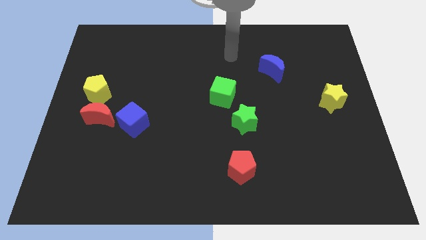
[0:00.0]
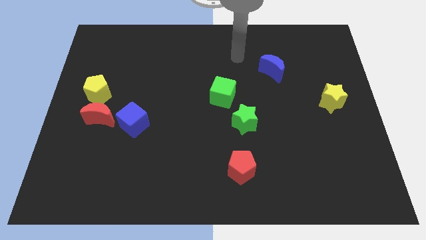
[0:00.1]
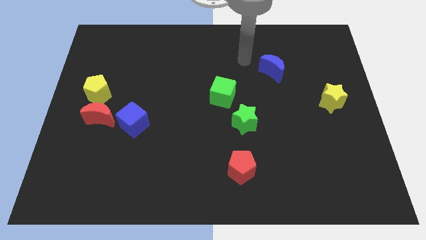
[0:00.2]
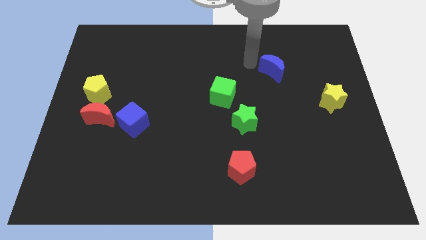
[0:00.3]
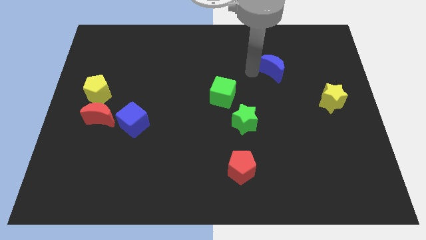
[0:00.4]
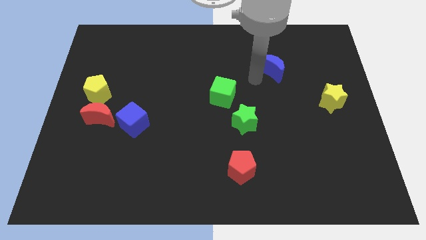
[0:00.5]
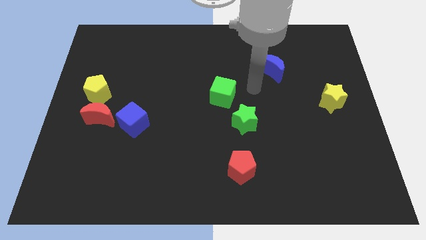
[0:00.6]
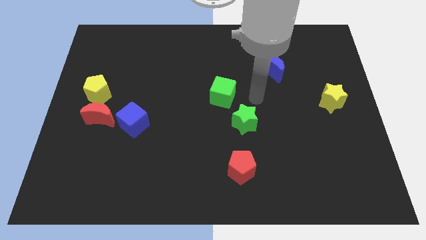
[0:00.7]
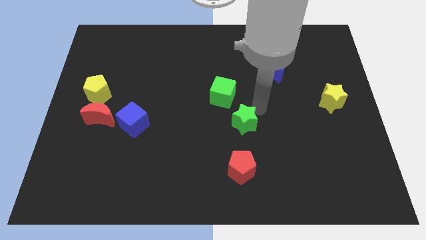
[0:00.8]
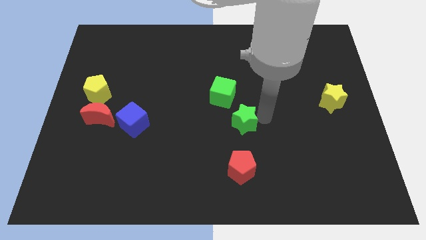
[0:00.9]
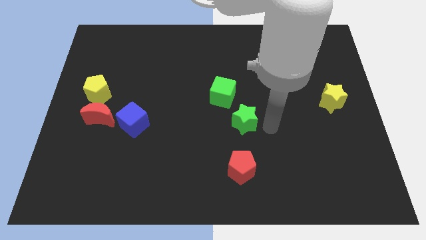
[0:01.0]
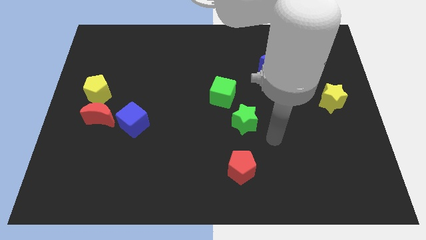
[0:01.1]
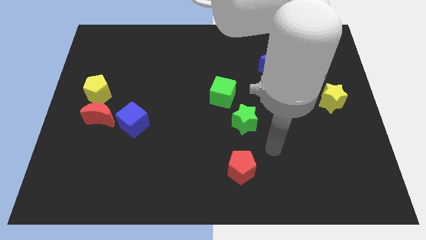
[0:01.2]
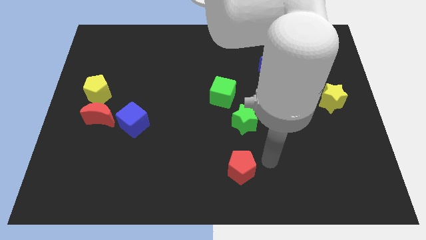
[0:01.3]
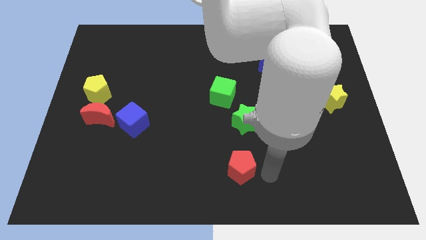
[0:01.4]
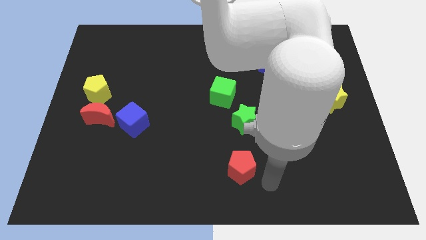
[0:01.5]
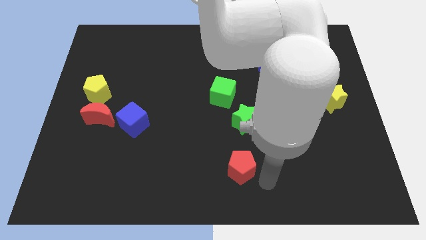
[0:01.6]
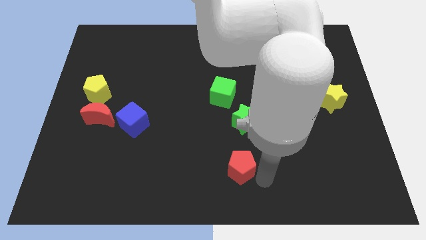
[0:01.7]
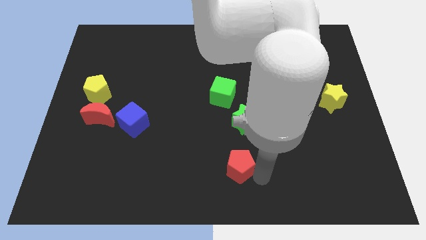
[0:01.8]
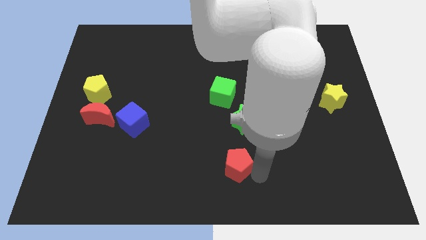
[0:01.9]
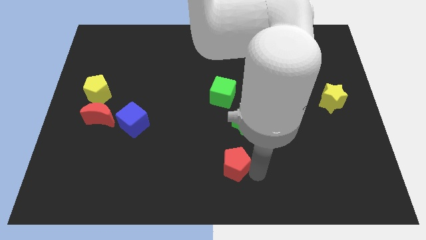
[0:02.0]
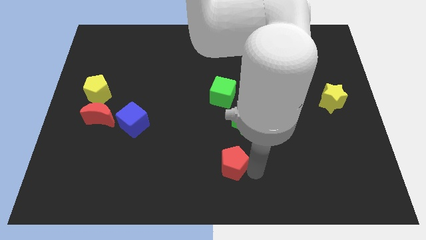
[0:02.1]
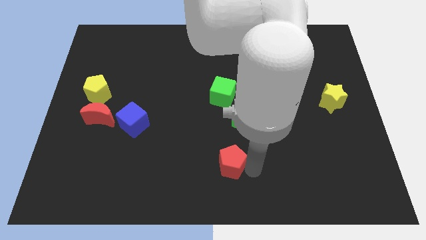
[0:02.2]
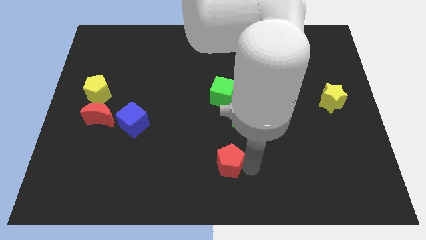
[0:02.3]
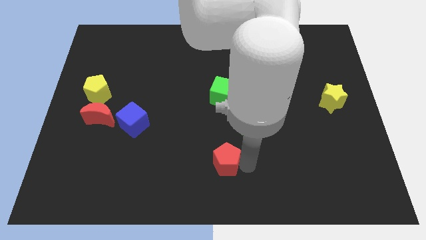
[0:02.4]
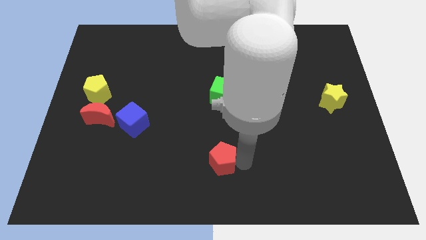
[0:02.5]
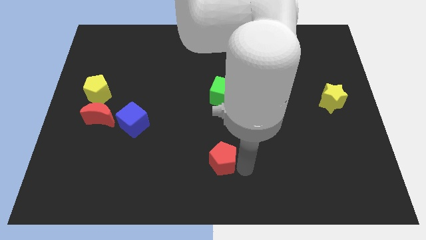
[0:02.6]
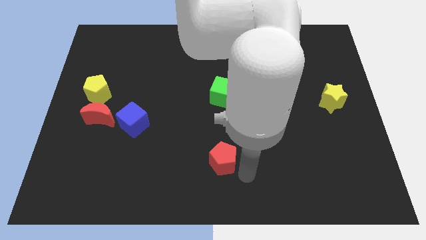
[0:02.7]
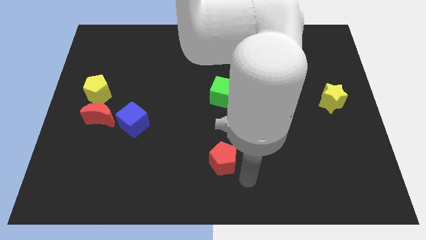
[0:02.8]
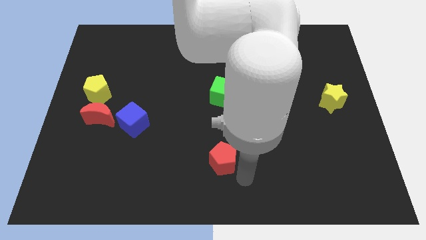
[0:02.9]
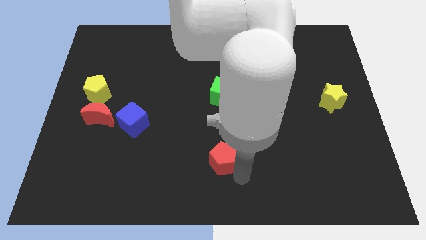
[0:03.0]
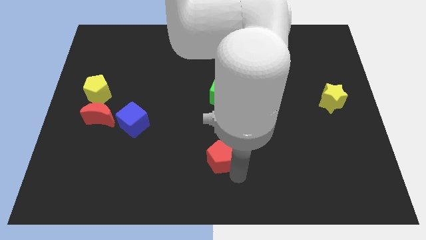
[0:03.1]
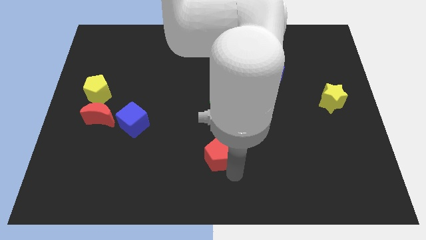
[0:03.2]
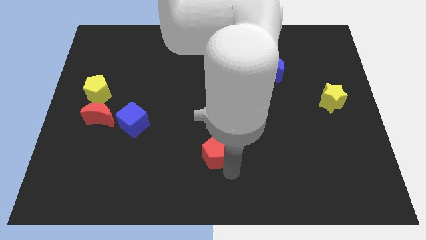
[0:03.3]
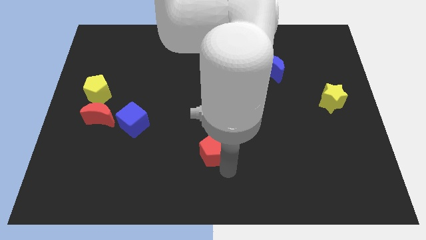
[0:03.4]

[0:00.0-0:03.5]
push the red pentagon a little bit up and left diagonally

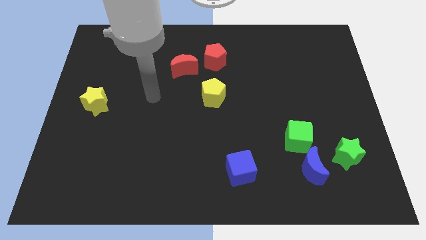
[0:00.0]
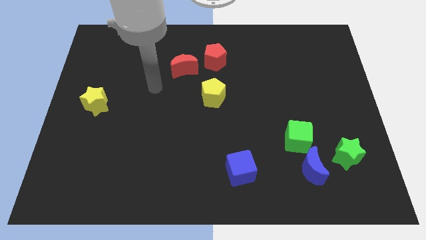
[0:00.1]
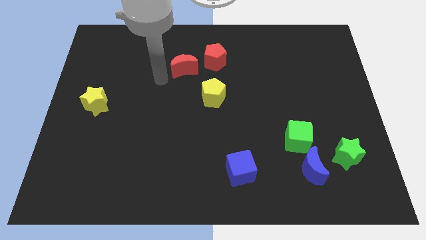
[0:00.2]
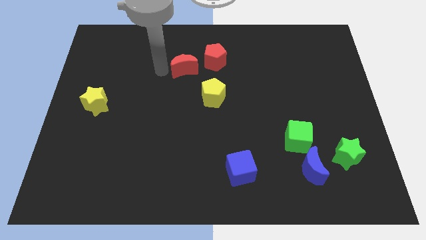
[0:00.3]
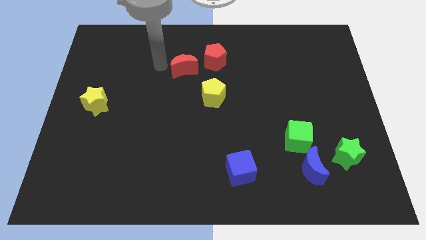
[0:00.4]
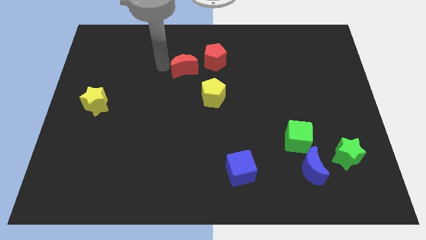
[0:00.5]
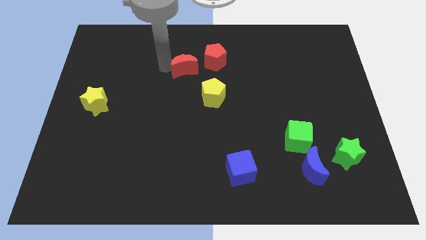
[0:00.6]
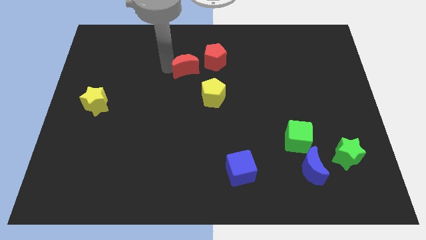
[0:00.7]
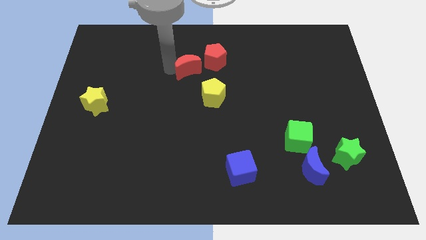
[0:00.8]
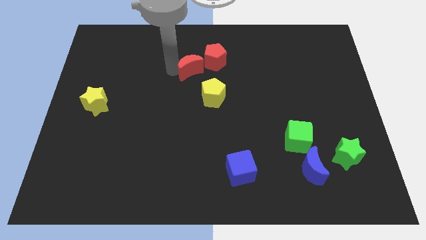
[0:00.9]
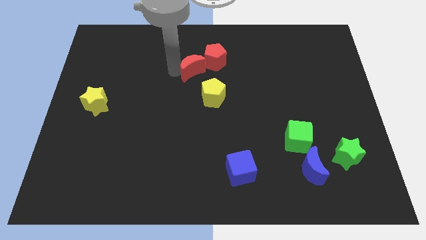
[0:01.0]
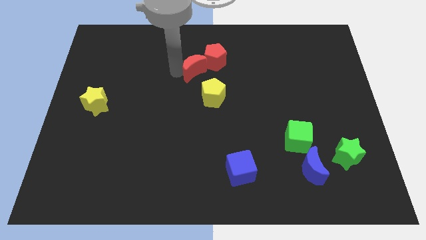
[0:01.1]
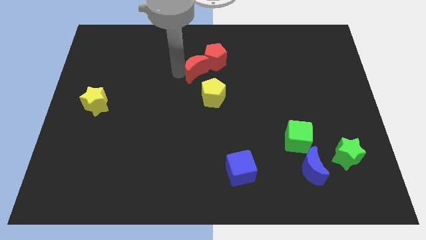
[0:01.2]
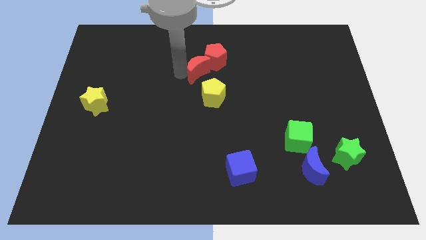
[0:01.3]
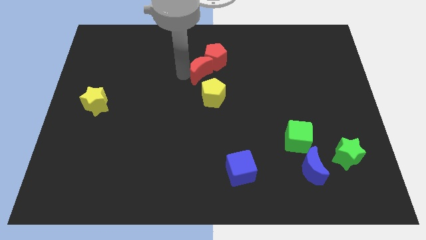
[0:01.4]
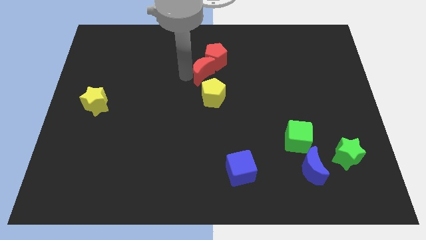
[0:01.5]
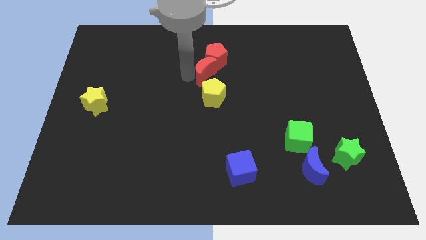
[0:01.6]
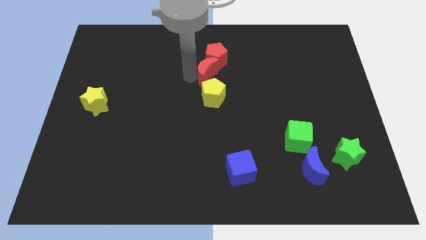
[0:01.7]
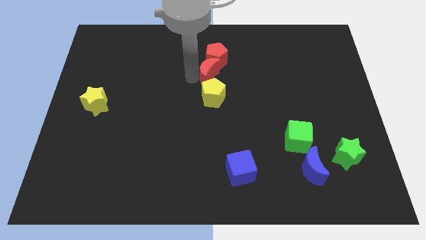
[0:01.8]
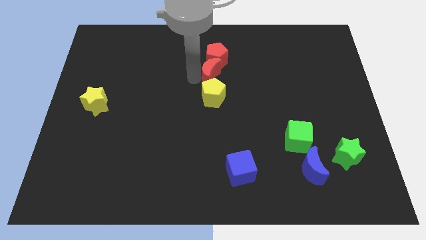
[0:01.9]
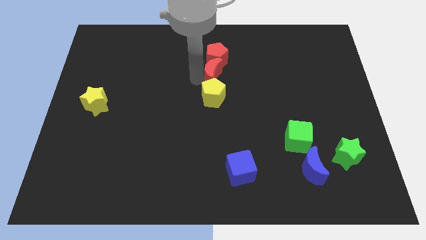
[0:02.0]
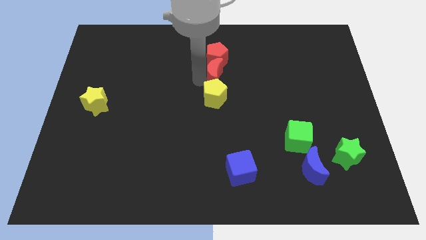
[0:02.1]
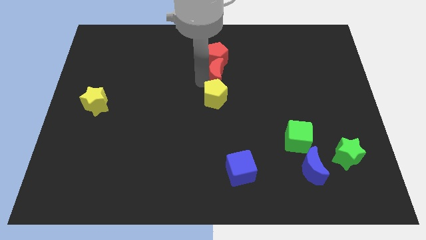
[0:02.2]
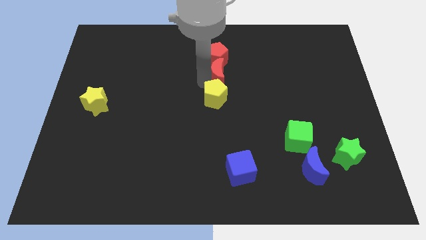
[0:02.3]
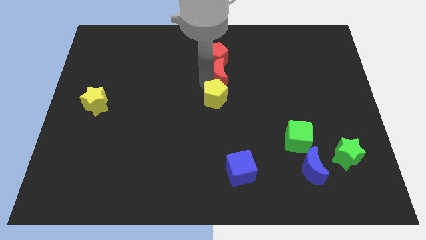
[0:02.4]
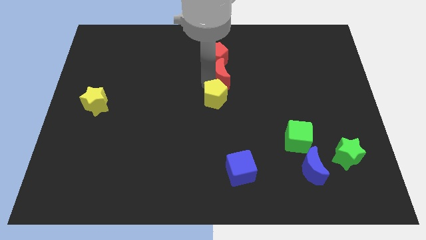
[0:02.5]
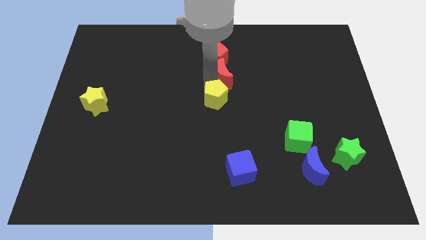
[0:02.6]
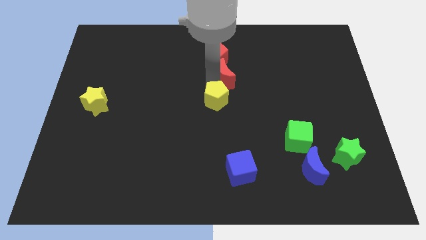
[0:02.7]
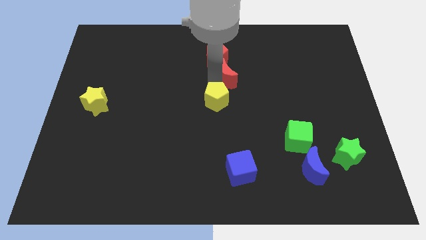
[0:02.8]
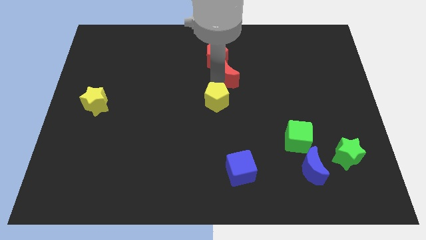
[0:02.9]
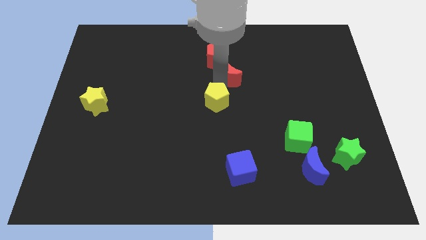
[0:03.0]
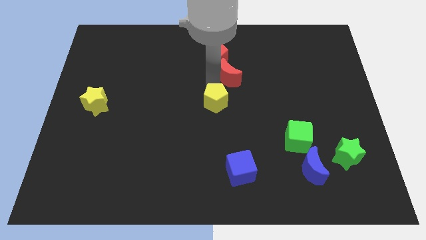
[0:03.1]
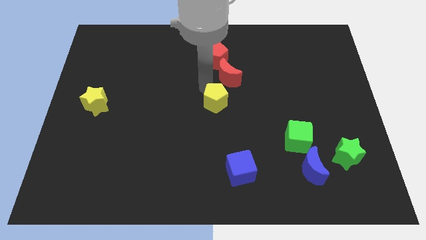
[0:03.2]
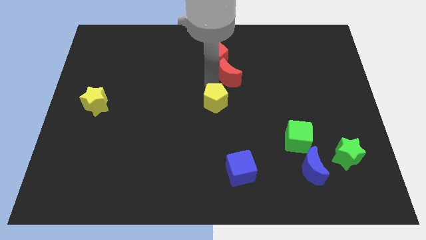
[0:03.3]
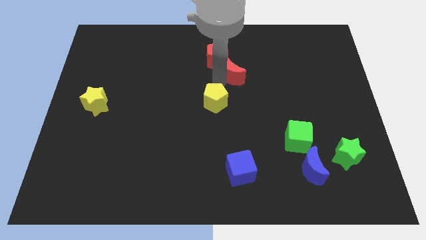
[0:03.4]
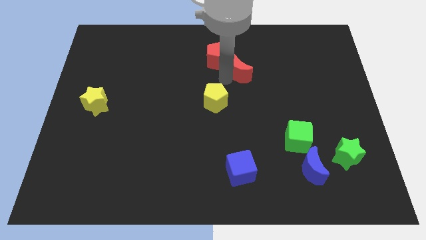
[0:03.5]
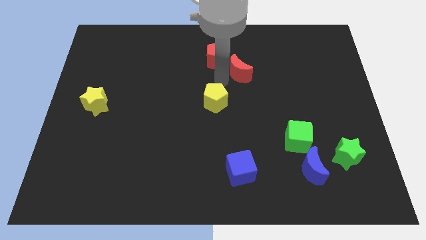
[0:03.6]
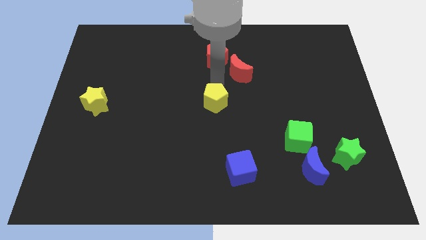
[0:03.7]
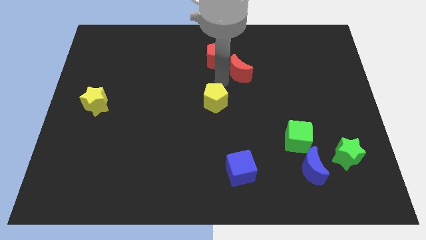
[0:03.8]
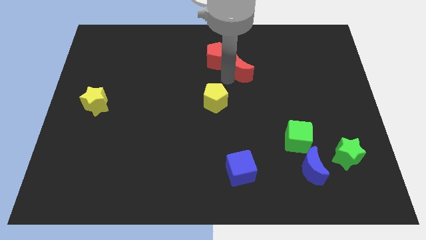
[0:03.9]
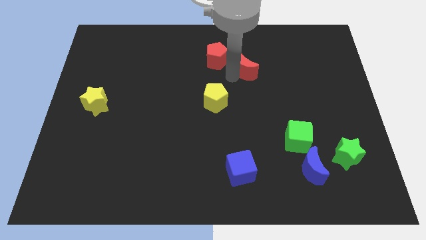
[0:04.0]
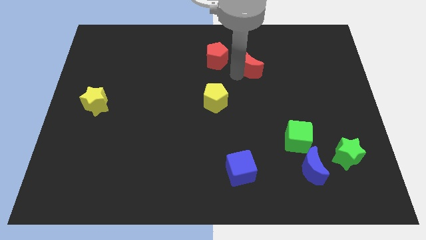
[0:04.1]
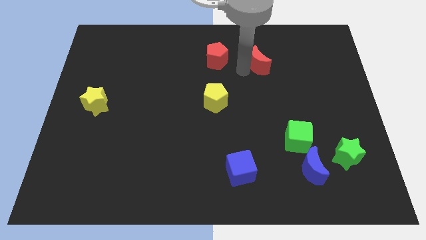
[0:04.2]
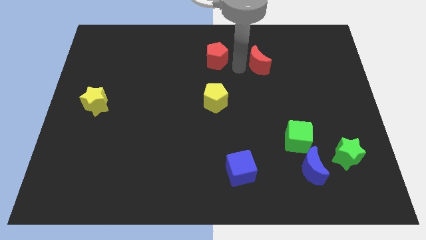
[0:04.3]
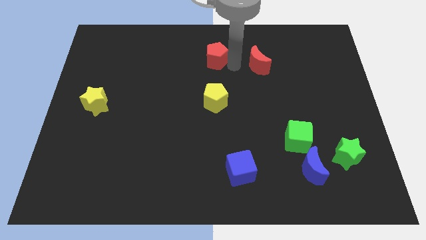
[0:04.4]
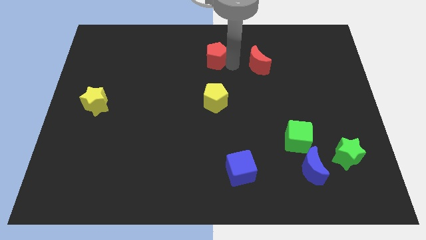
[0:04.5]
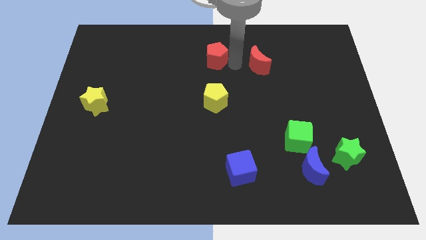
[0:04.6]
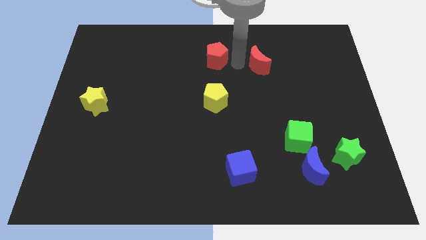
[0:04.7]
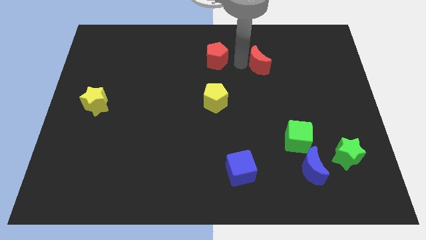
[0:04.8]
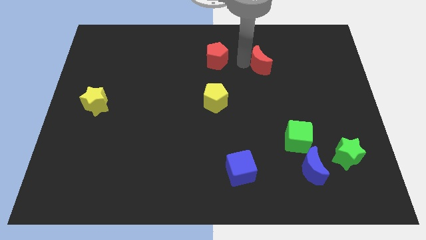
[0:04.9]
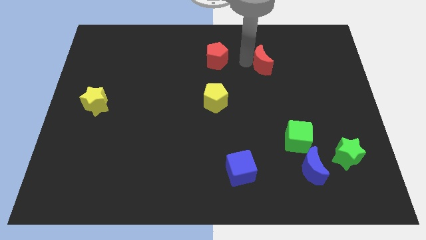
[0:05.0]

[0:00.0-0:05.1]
move the red moon right
